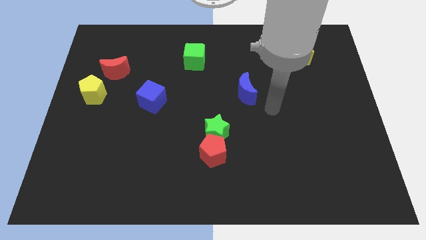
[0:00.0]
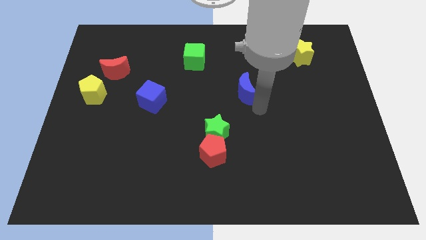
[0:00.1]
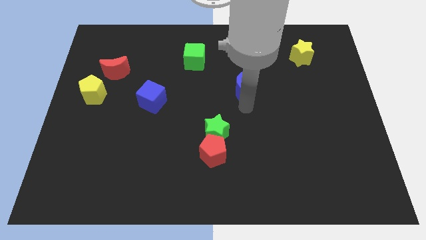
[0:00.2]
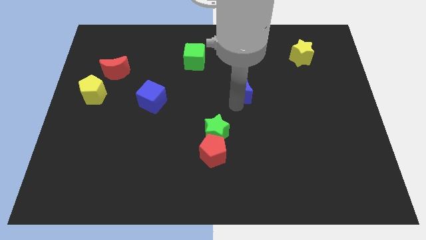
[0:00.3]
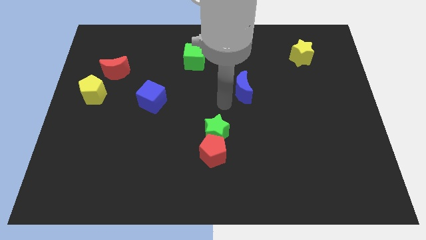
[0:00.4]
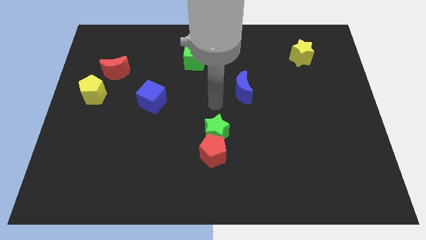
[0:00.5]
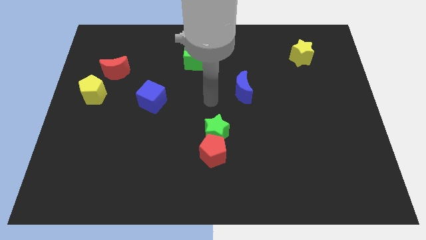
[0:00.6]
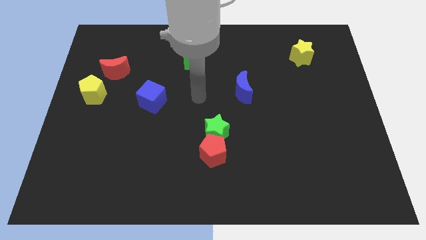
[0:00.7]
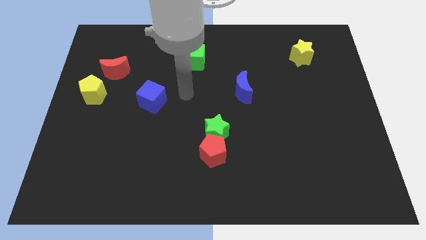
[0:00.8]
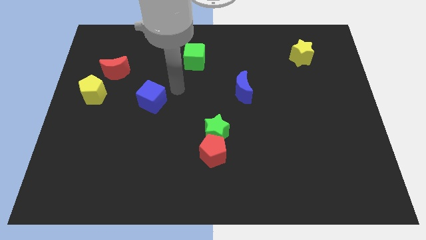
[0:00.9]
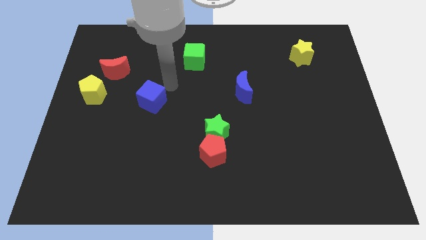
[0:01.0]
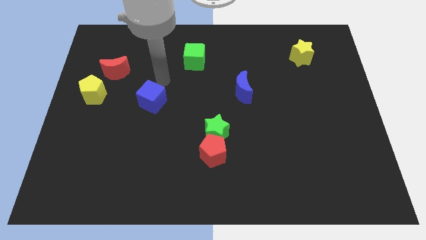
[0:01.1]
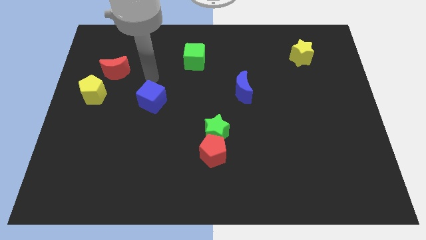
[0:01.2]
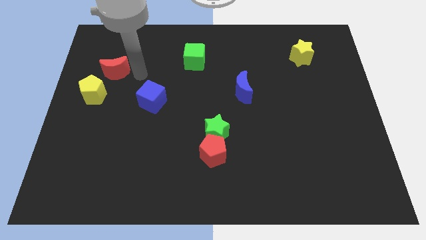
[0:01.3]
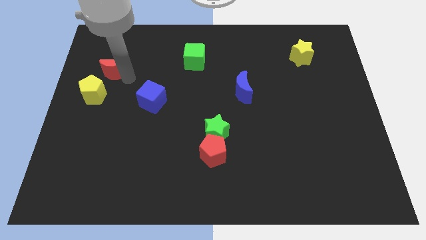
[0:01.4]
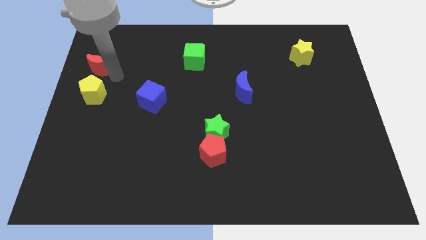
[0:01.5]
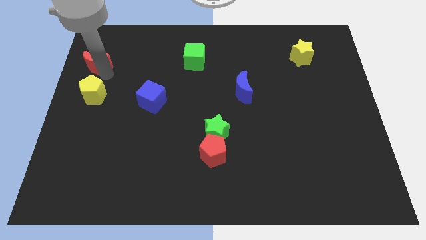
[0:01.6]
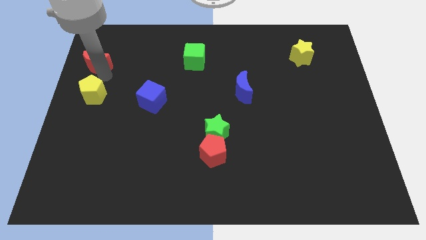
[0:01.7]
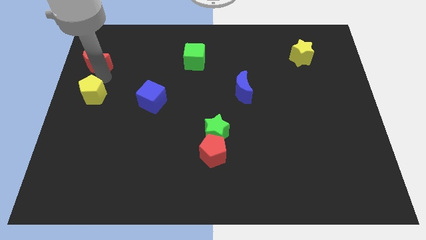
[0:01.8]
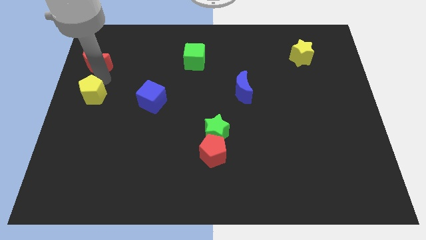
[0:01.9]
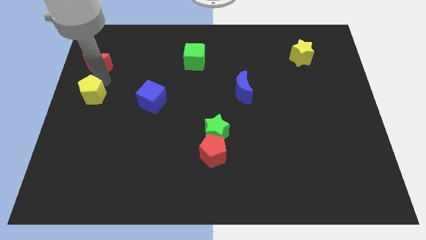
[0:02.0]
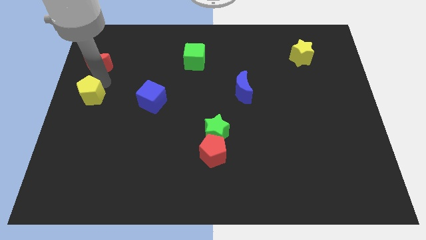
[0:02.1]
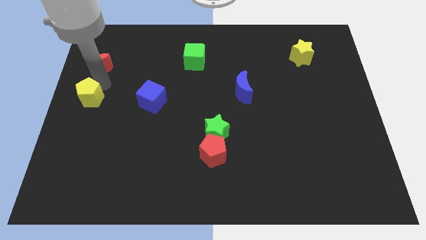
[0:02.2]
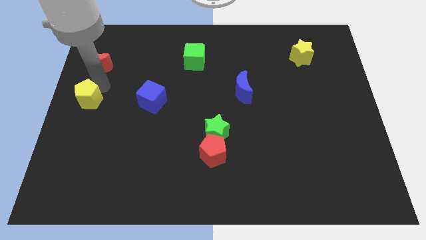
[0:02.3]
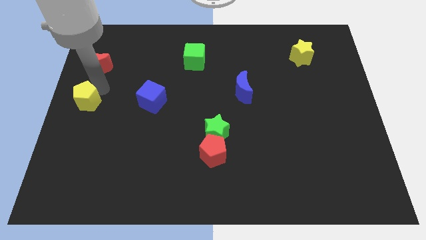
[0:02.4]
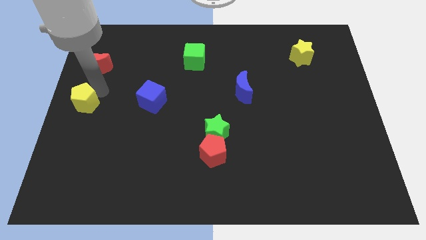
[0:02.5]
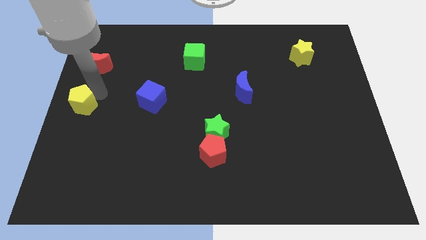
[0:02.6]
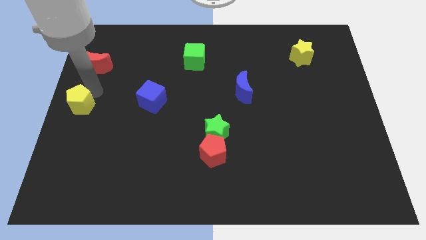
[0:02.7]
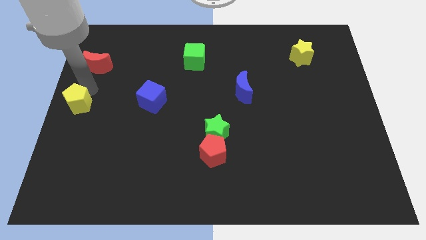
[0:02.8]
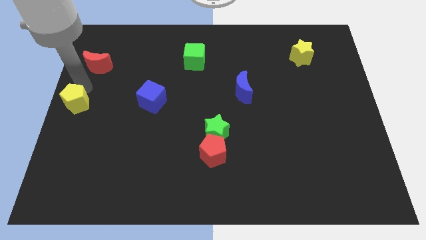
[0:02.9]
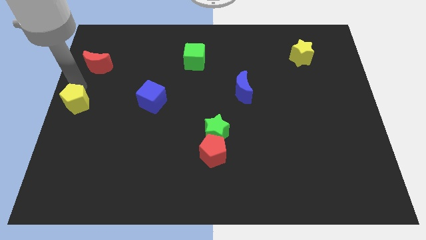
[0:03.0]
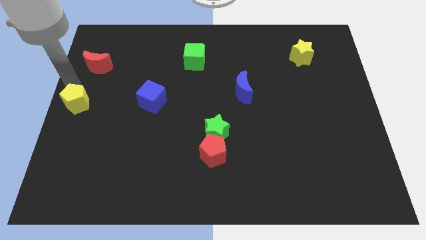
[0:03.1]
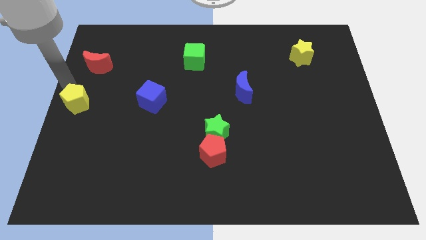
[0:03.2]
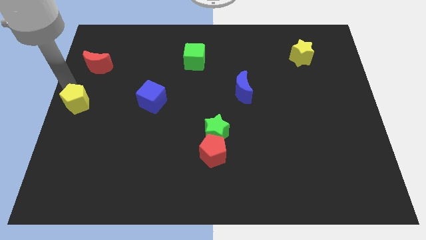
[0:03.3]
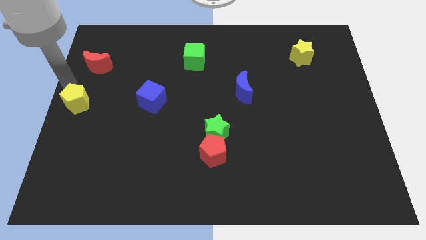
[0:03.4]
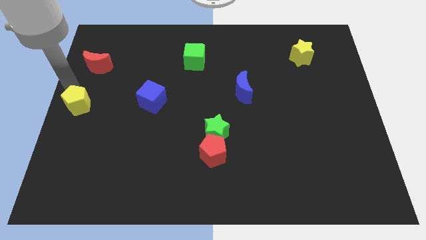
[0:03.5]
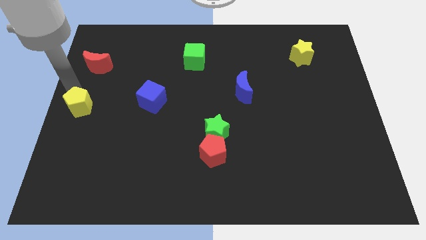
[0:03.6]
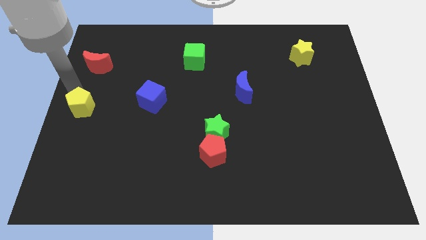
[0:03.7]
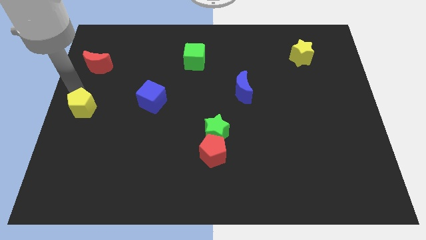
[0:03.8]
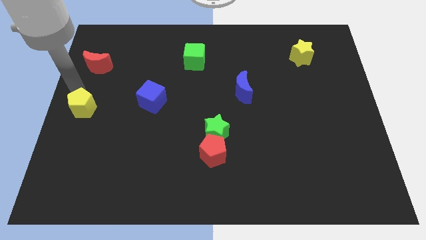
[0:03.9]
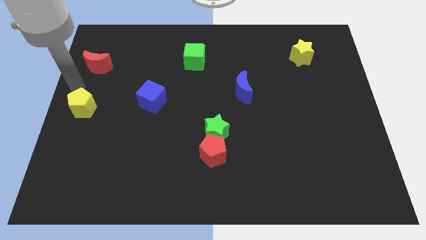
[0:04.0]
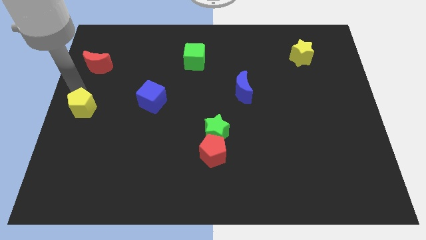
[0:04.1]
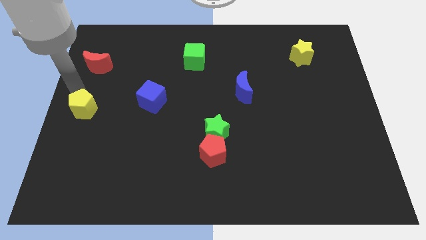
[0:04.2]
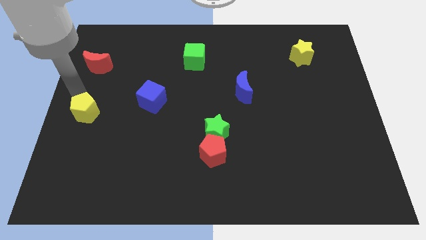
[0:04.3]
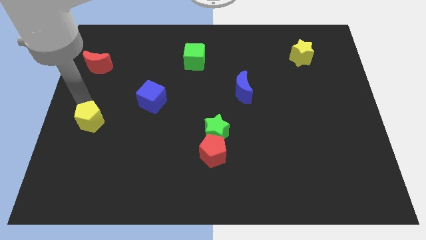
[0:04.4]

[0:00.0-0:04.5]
slide the yellow pentagon down a little

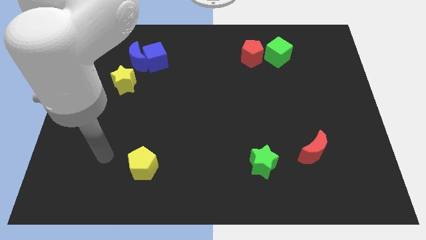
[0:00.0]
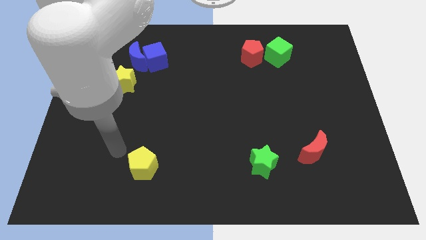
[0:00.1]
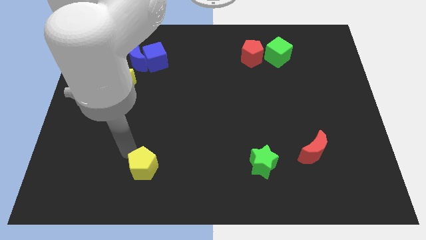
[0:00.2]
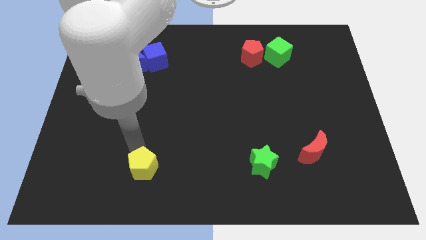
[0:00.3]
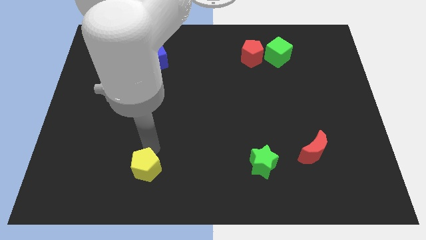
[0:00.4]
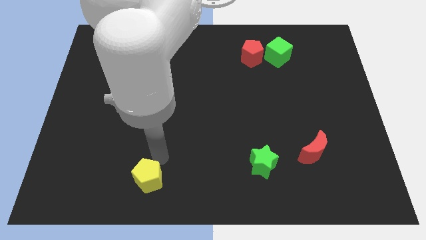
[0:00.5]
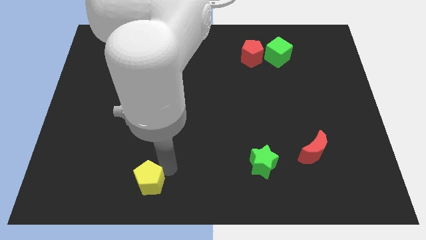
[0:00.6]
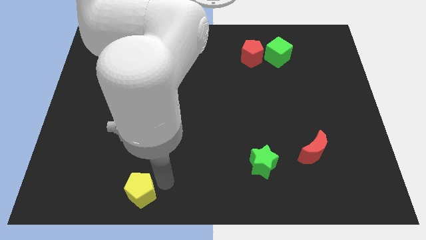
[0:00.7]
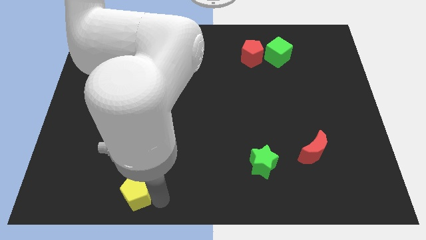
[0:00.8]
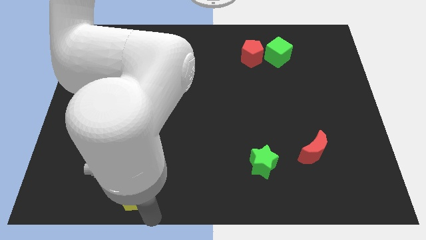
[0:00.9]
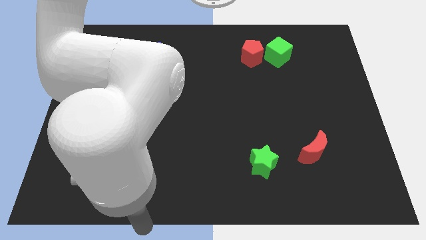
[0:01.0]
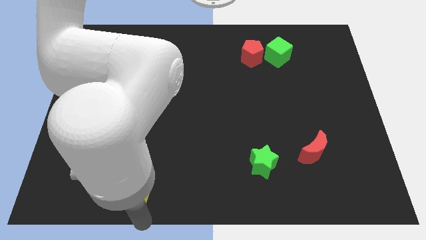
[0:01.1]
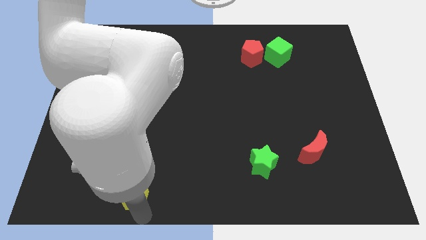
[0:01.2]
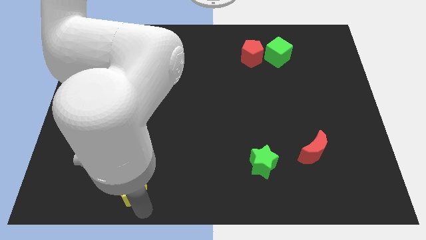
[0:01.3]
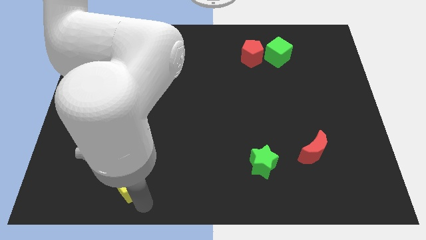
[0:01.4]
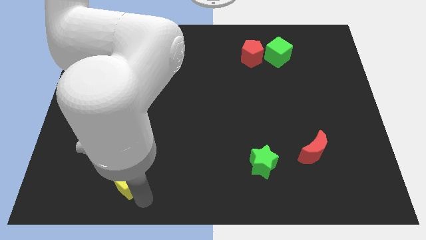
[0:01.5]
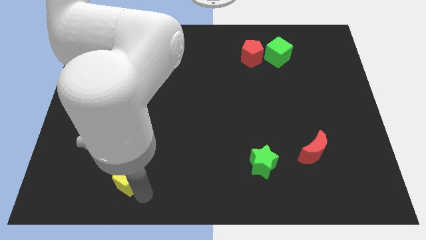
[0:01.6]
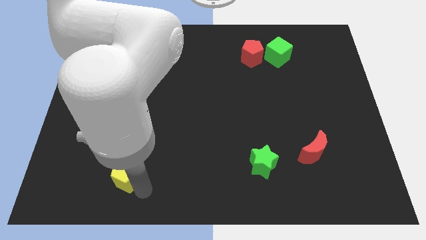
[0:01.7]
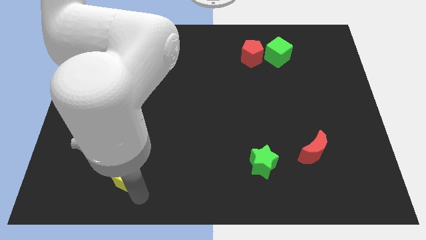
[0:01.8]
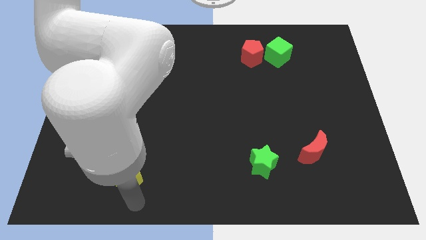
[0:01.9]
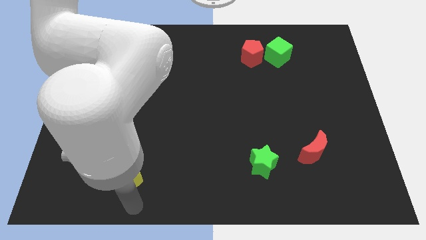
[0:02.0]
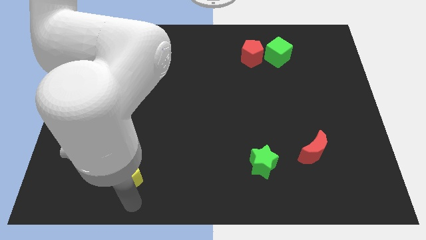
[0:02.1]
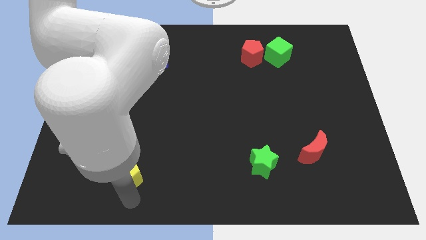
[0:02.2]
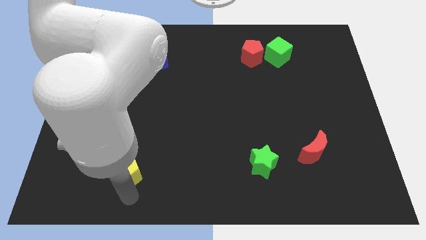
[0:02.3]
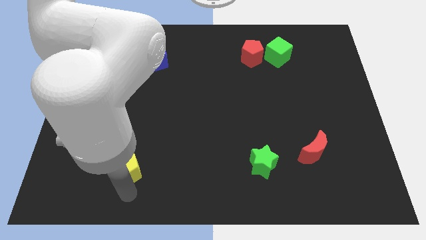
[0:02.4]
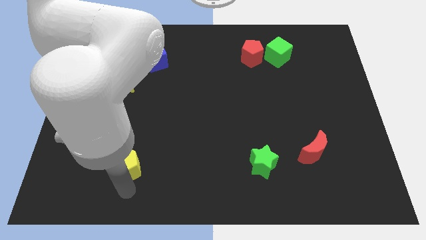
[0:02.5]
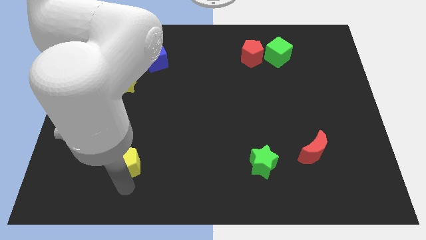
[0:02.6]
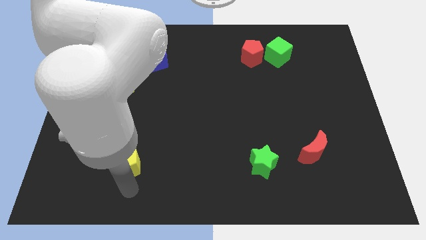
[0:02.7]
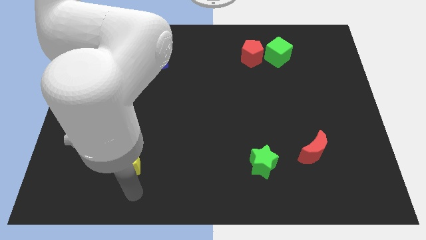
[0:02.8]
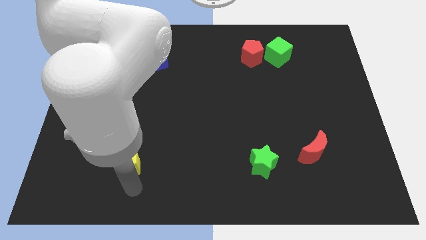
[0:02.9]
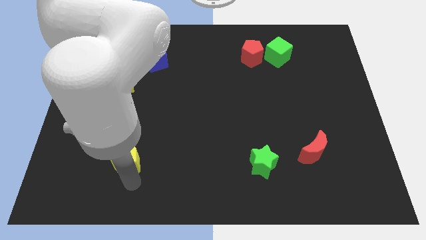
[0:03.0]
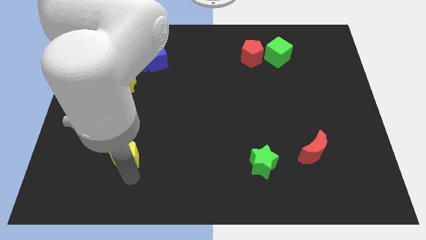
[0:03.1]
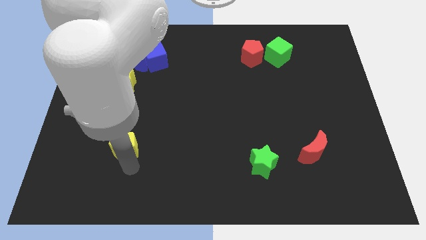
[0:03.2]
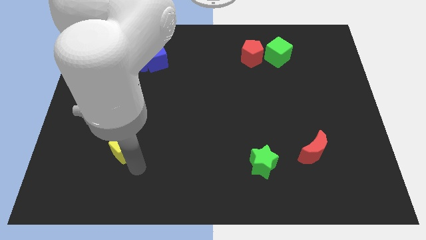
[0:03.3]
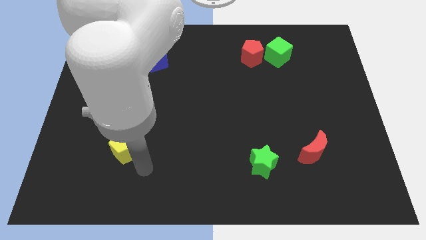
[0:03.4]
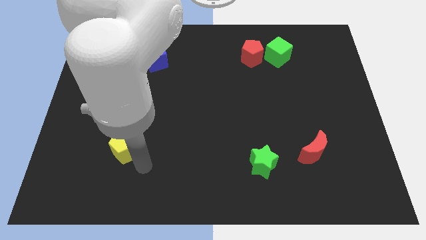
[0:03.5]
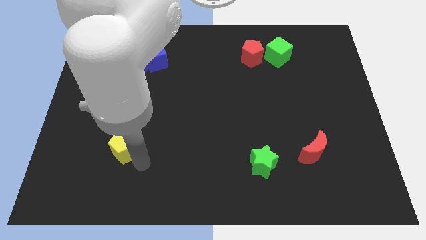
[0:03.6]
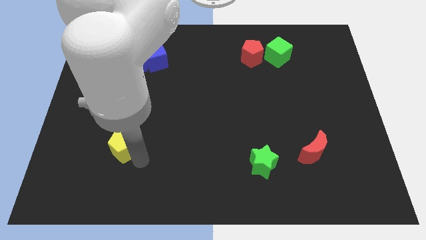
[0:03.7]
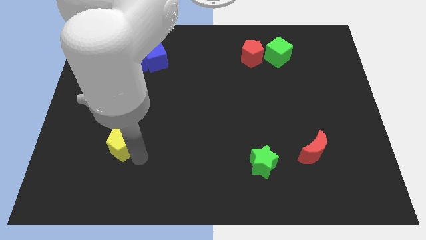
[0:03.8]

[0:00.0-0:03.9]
slightly move the yellow pentagon diagonally upwards and to the left
